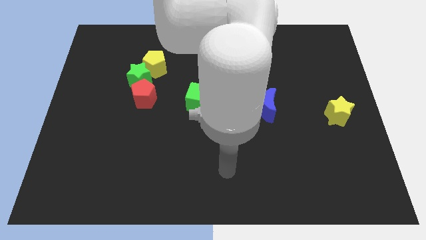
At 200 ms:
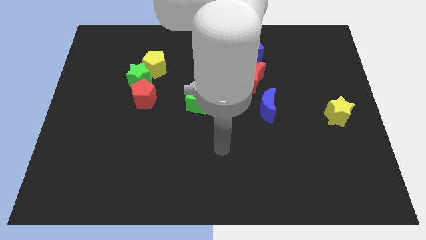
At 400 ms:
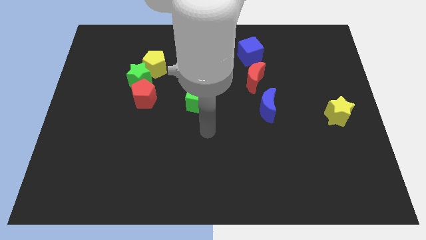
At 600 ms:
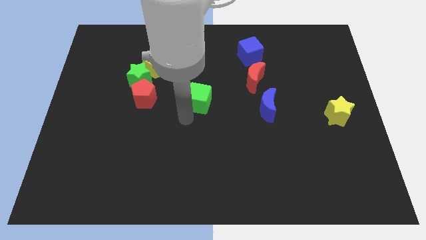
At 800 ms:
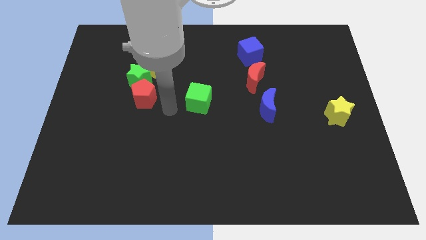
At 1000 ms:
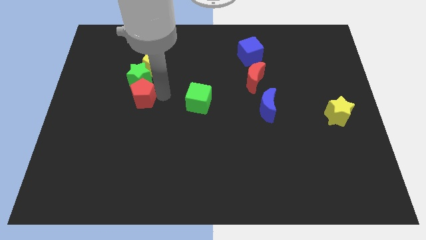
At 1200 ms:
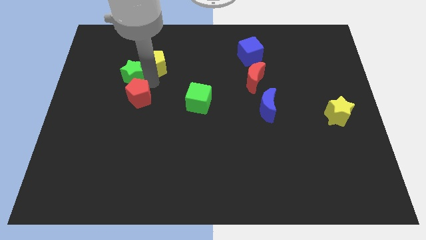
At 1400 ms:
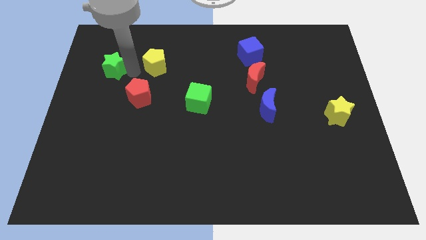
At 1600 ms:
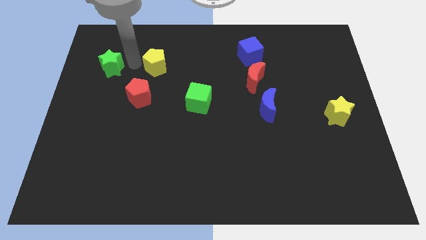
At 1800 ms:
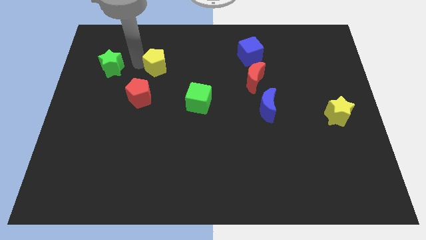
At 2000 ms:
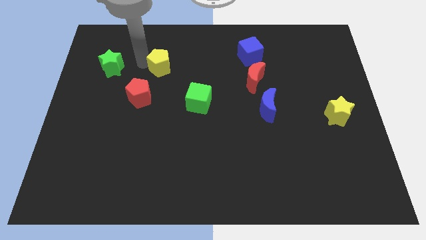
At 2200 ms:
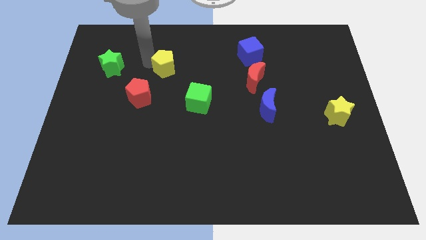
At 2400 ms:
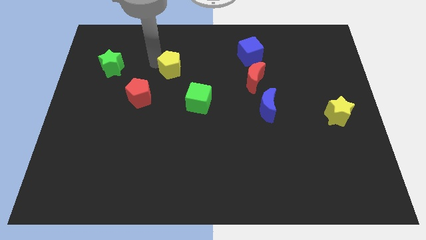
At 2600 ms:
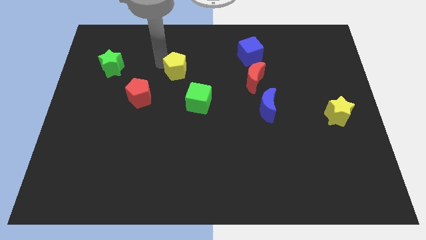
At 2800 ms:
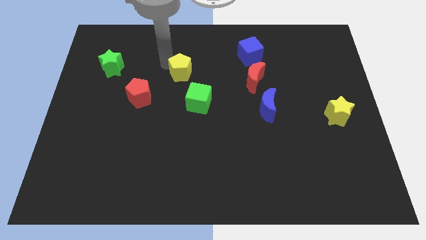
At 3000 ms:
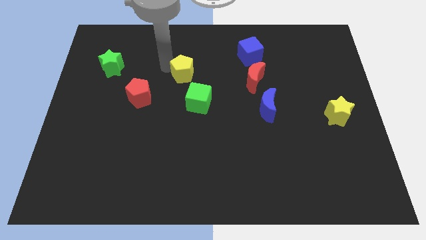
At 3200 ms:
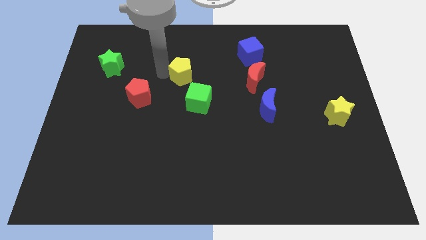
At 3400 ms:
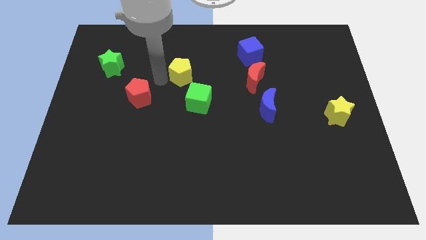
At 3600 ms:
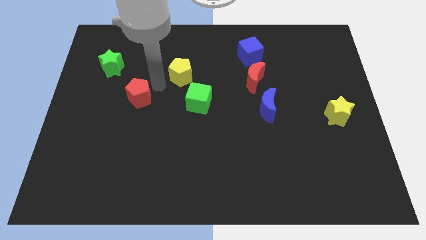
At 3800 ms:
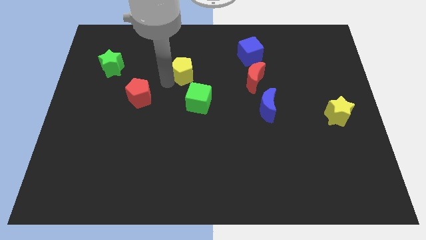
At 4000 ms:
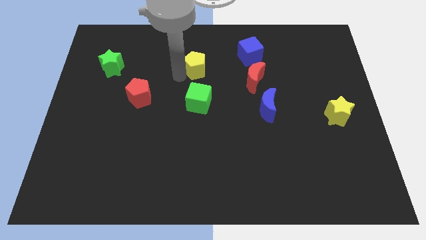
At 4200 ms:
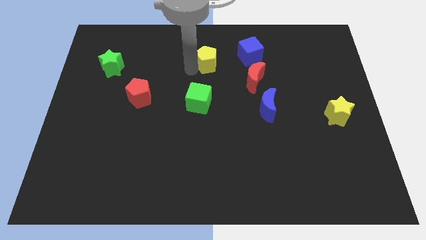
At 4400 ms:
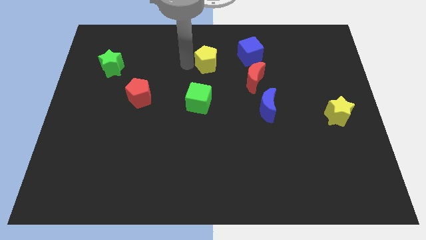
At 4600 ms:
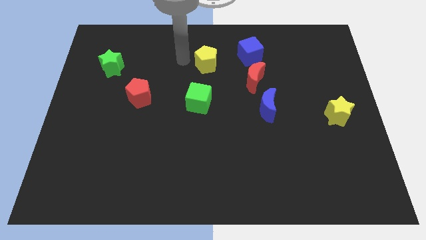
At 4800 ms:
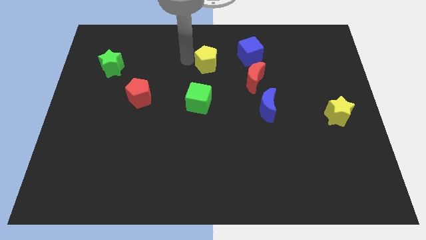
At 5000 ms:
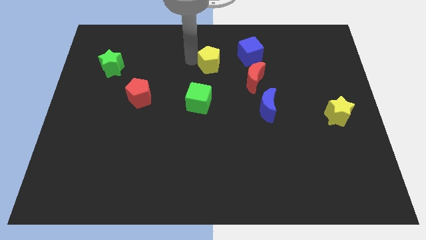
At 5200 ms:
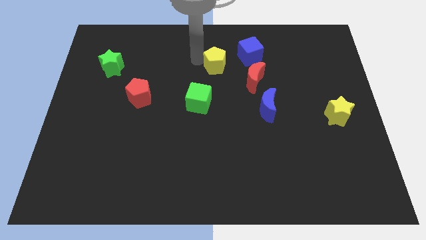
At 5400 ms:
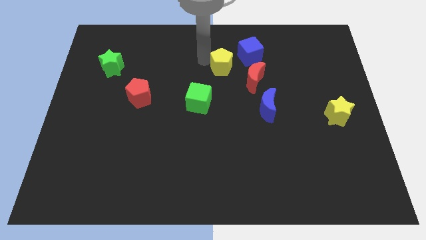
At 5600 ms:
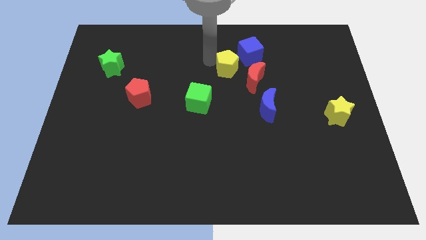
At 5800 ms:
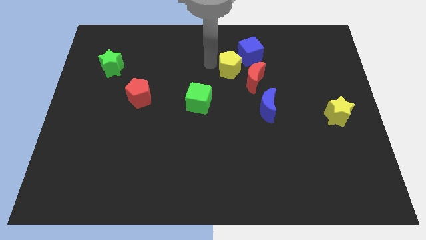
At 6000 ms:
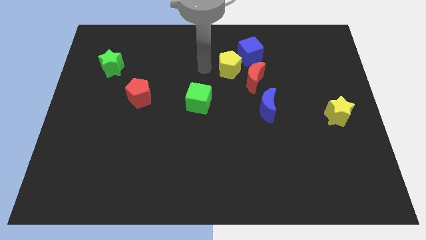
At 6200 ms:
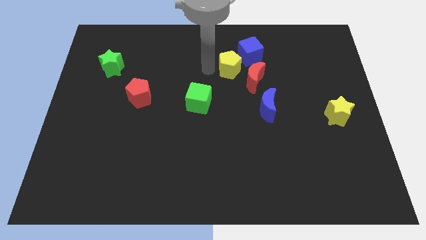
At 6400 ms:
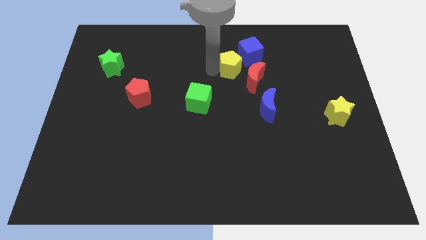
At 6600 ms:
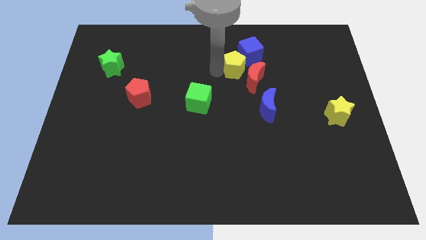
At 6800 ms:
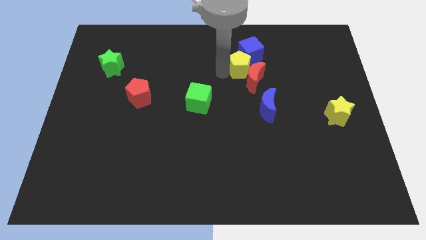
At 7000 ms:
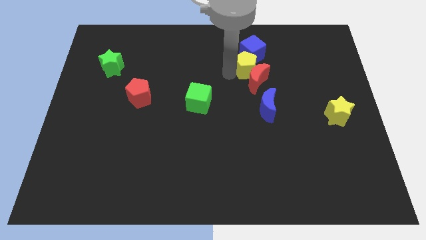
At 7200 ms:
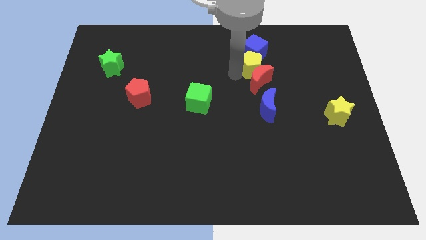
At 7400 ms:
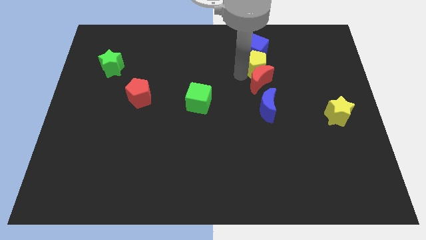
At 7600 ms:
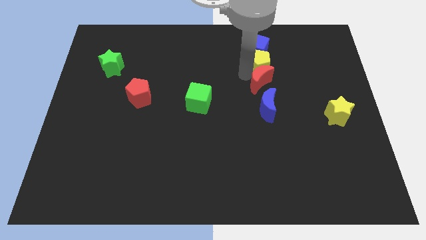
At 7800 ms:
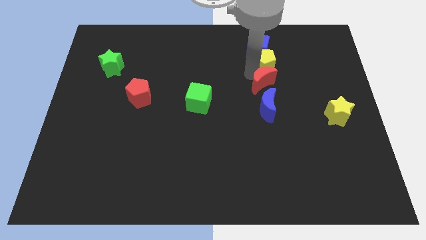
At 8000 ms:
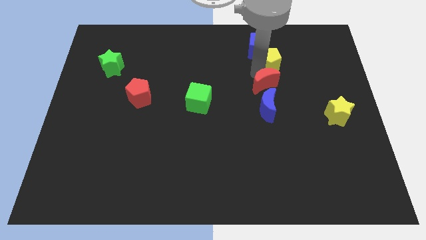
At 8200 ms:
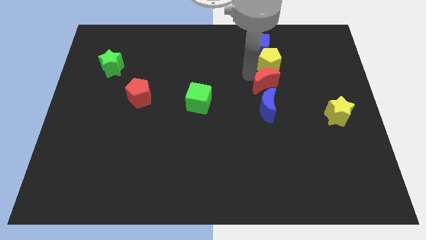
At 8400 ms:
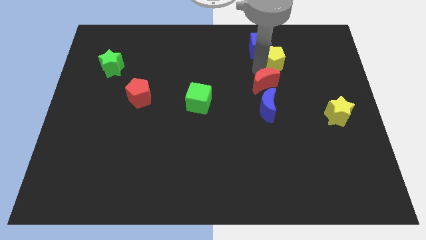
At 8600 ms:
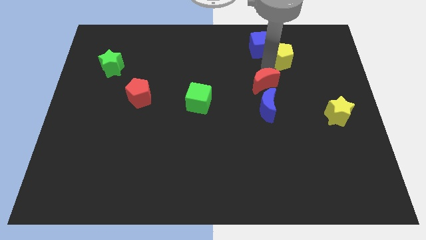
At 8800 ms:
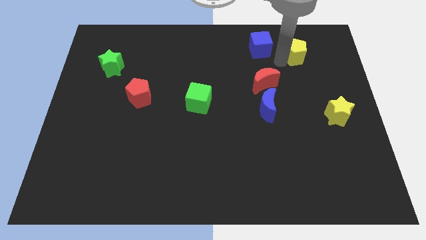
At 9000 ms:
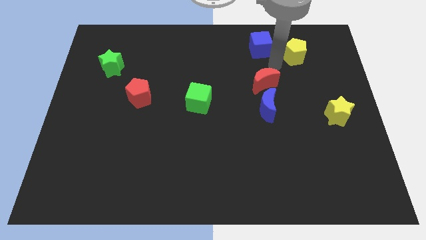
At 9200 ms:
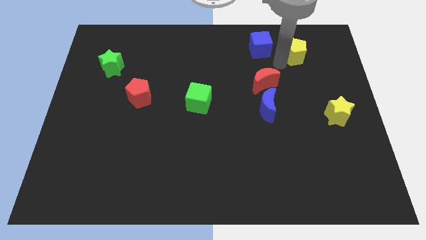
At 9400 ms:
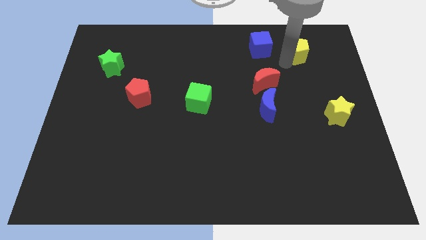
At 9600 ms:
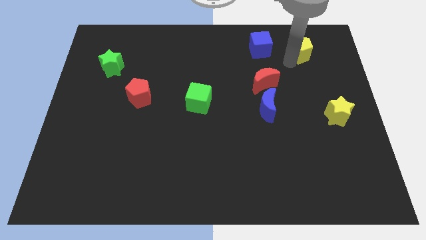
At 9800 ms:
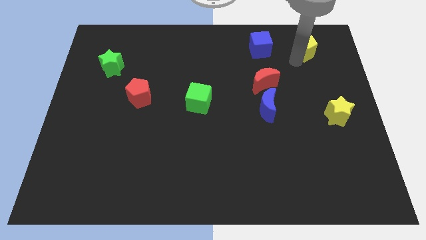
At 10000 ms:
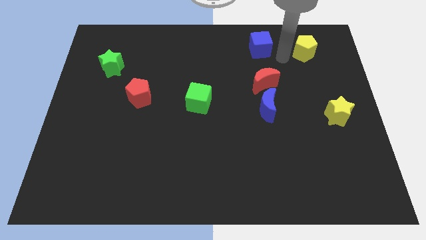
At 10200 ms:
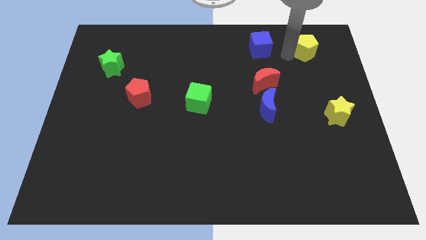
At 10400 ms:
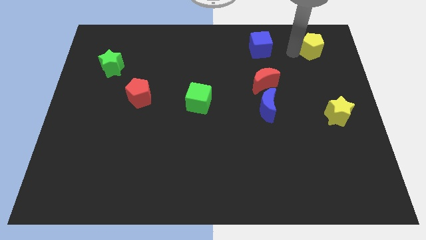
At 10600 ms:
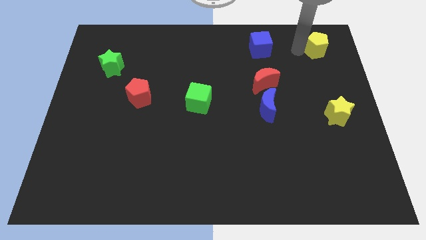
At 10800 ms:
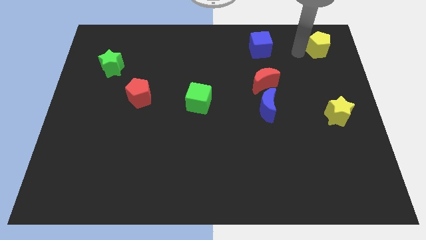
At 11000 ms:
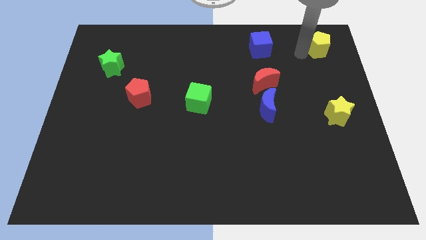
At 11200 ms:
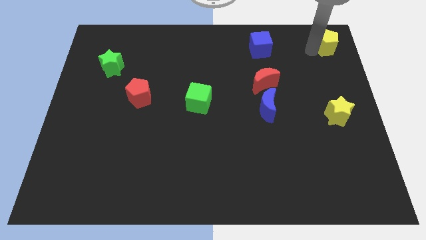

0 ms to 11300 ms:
push the yellow pentagon to the top right corner

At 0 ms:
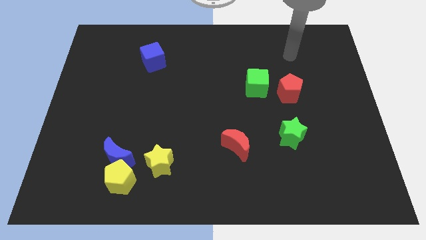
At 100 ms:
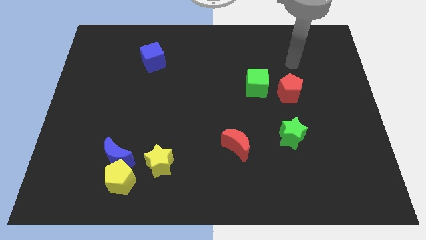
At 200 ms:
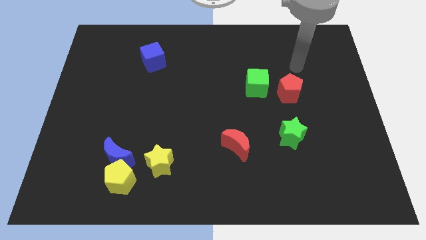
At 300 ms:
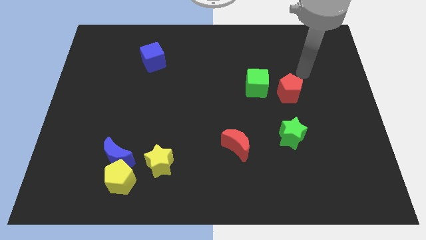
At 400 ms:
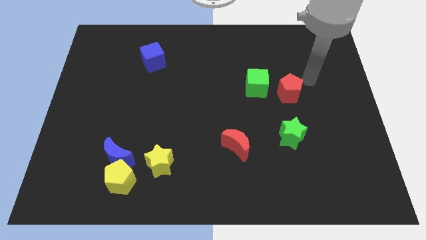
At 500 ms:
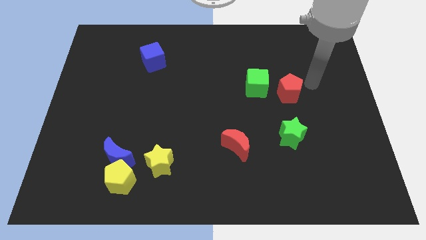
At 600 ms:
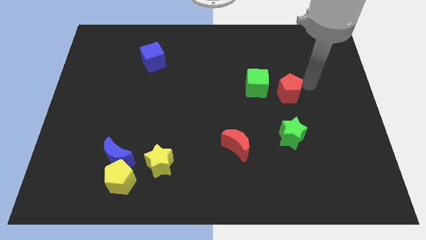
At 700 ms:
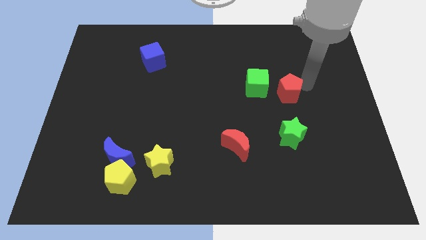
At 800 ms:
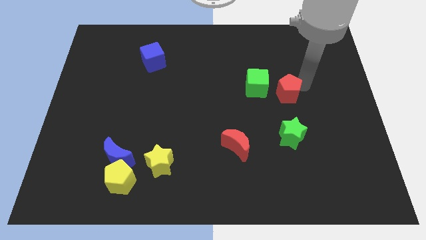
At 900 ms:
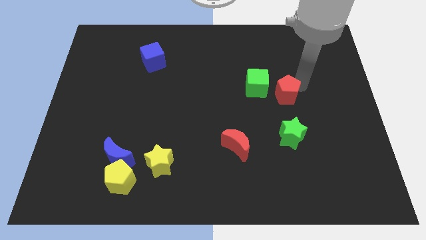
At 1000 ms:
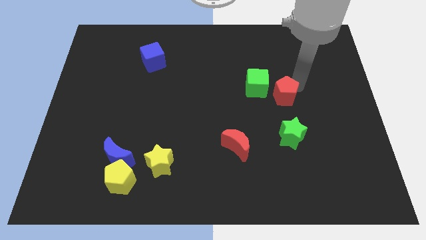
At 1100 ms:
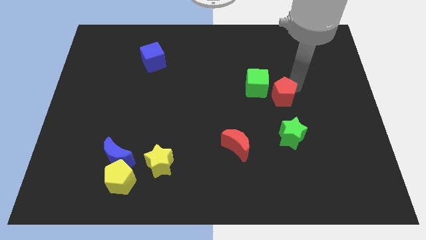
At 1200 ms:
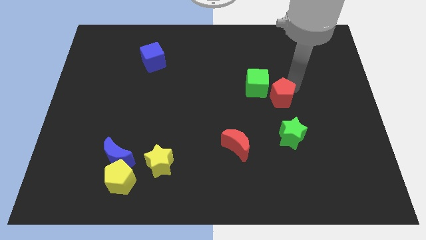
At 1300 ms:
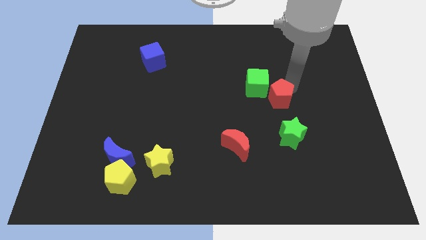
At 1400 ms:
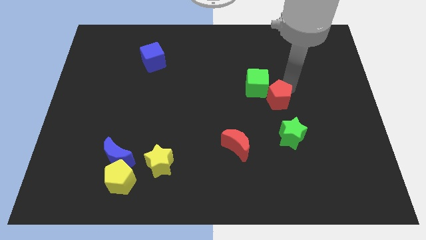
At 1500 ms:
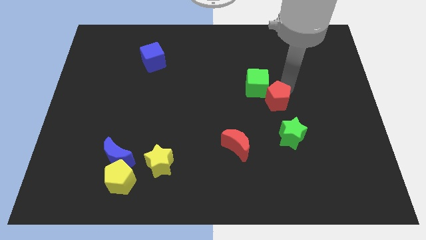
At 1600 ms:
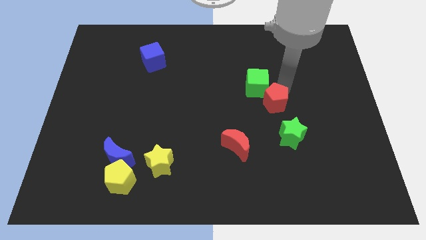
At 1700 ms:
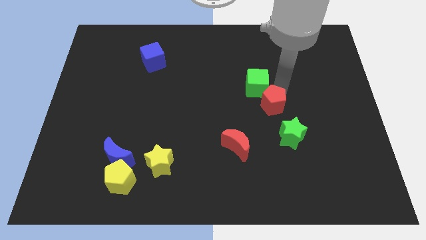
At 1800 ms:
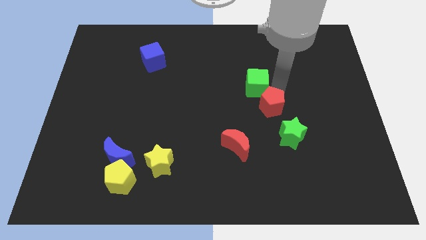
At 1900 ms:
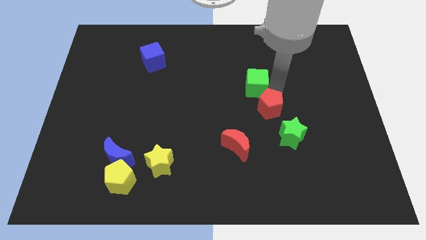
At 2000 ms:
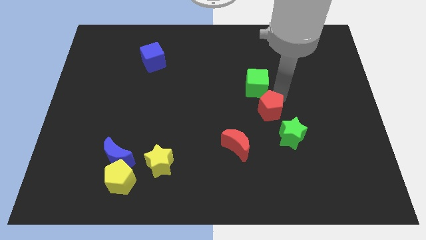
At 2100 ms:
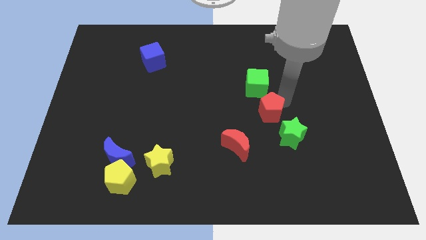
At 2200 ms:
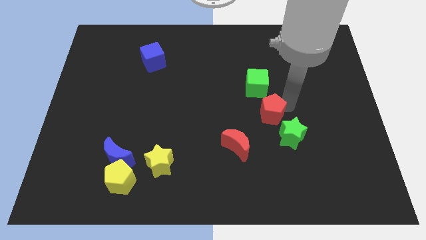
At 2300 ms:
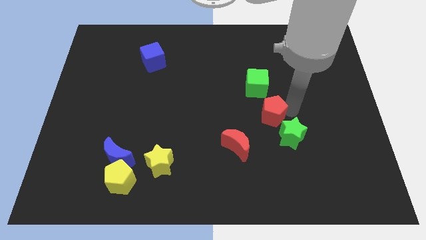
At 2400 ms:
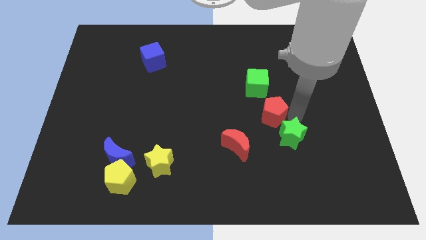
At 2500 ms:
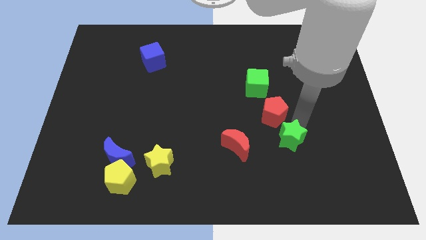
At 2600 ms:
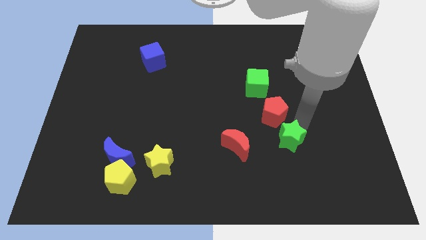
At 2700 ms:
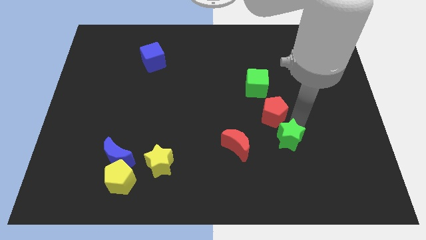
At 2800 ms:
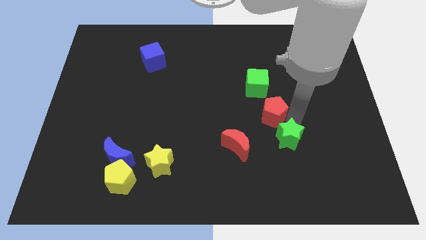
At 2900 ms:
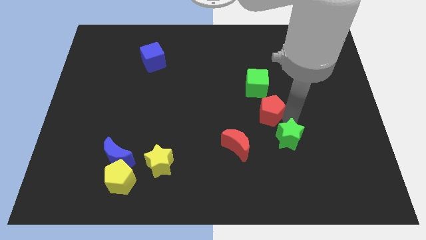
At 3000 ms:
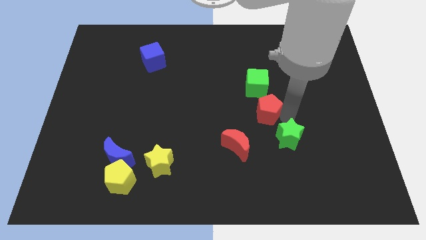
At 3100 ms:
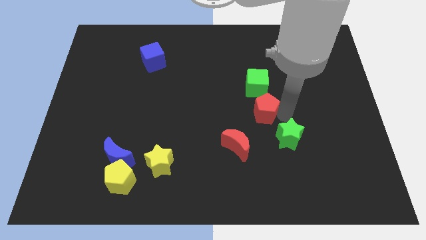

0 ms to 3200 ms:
move the red pentagon to the middle
